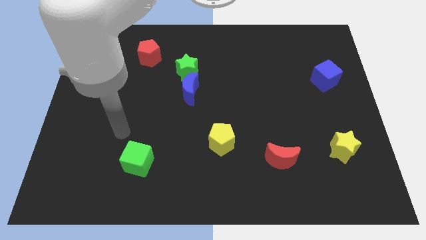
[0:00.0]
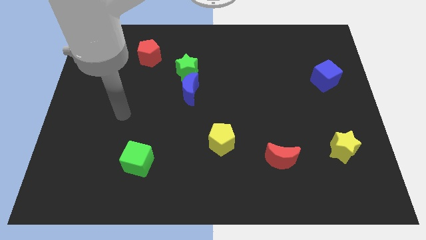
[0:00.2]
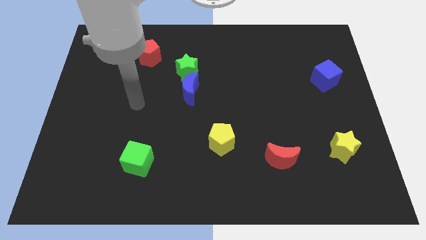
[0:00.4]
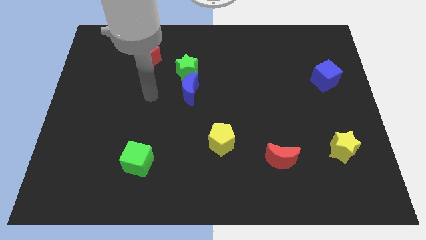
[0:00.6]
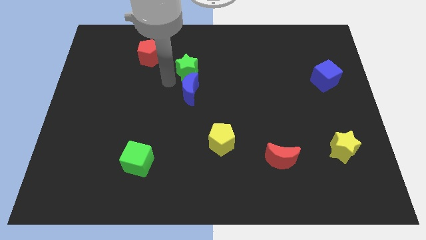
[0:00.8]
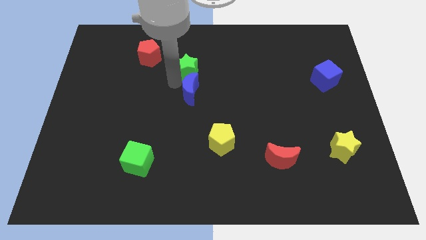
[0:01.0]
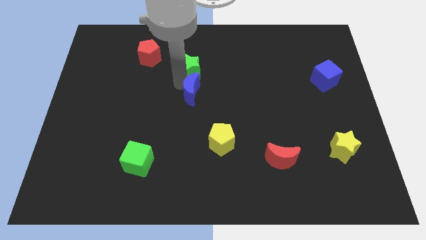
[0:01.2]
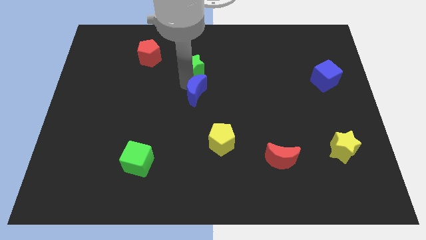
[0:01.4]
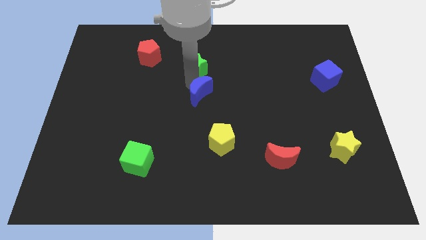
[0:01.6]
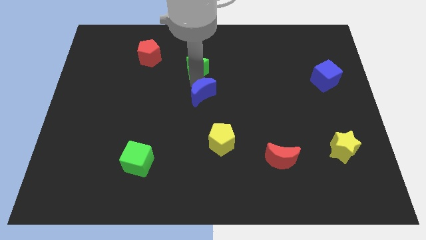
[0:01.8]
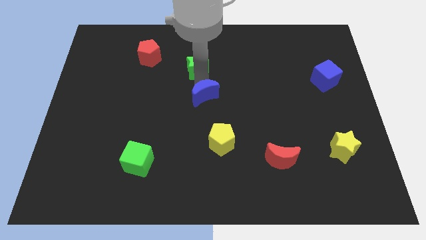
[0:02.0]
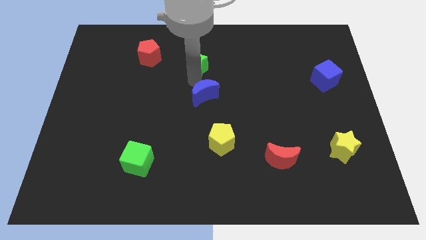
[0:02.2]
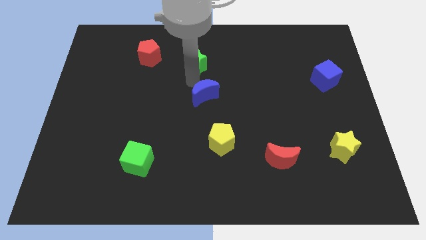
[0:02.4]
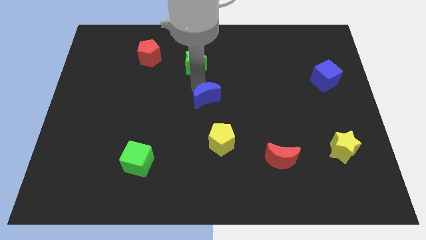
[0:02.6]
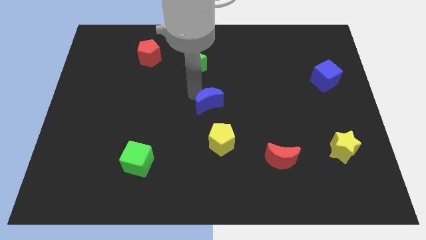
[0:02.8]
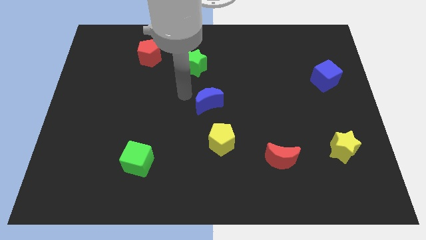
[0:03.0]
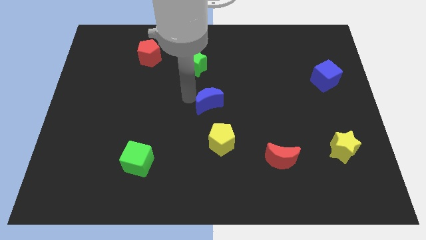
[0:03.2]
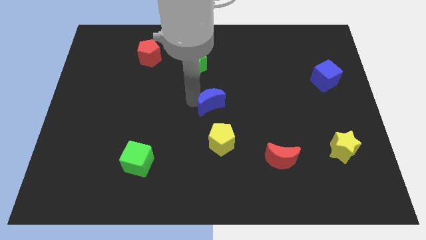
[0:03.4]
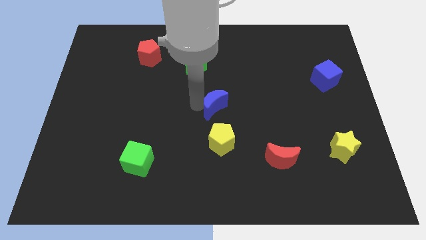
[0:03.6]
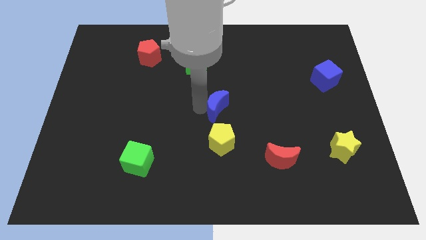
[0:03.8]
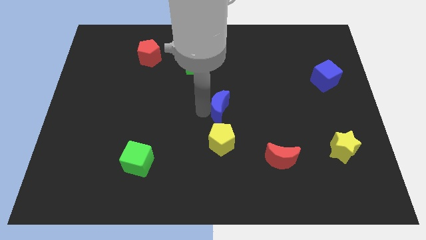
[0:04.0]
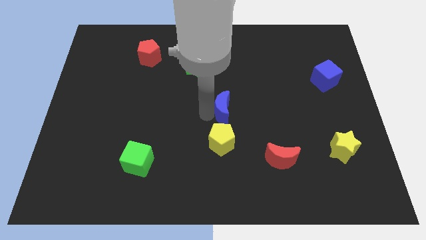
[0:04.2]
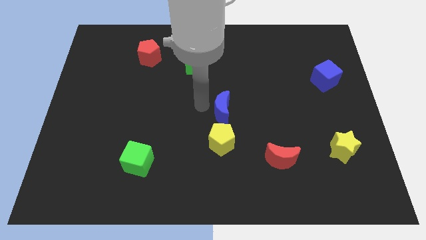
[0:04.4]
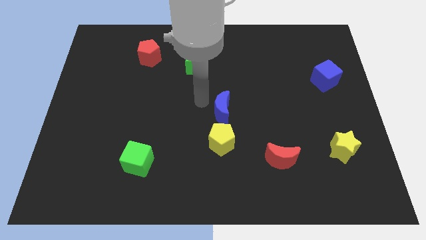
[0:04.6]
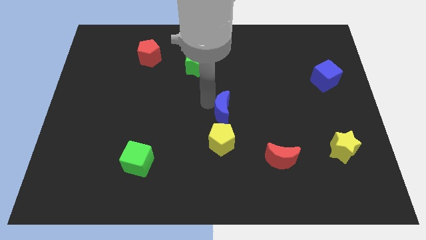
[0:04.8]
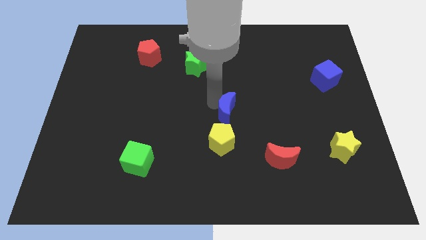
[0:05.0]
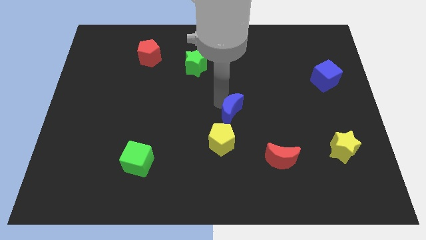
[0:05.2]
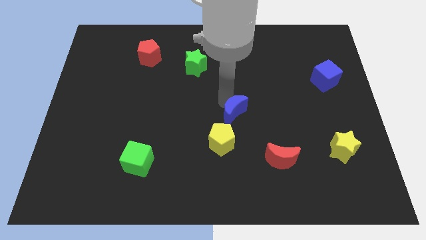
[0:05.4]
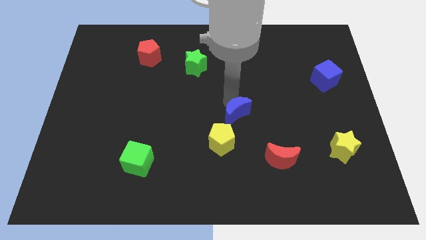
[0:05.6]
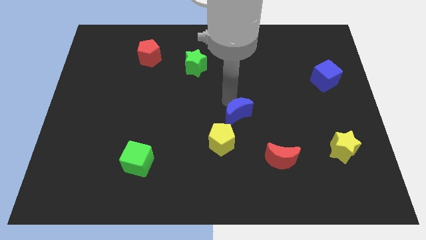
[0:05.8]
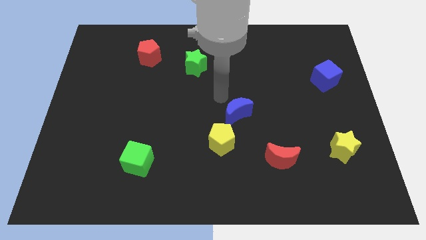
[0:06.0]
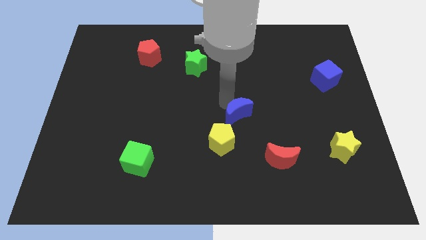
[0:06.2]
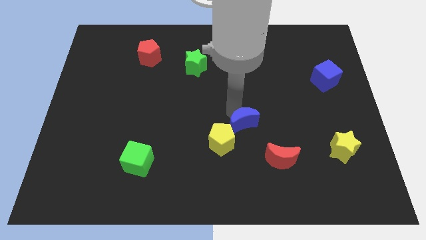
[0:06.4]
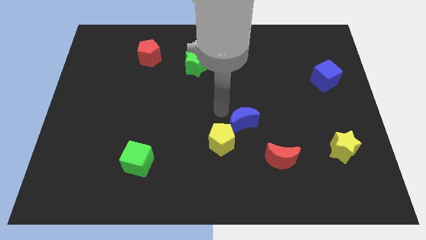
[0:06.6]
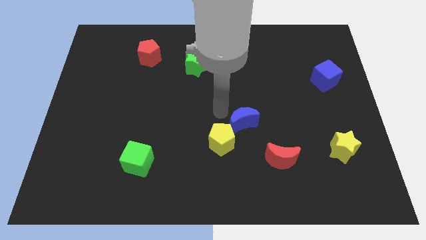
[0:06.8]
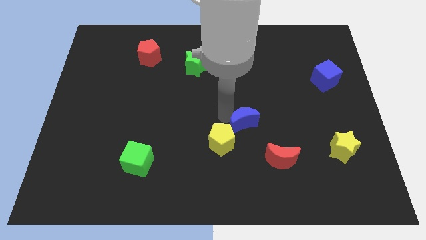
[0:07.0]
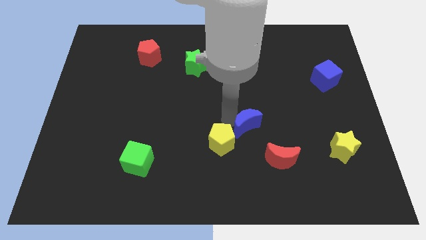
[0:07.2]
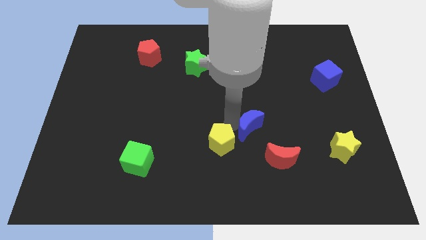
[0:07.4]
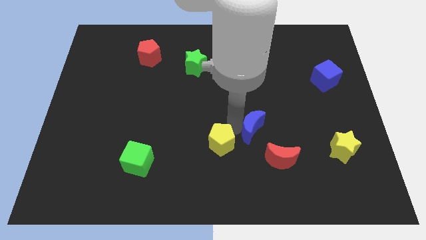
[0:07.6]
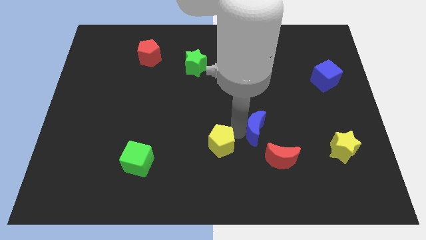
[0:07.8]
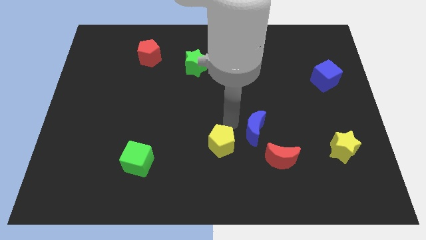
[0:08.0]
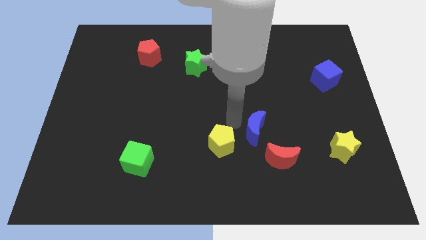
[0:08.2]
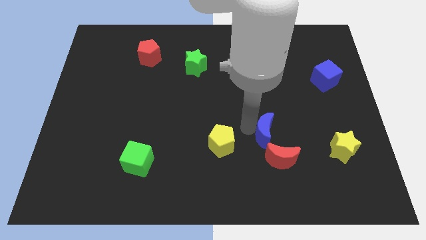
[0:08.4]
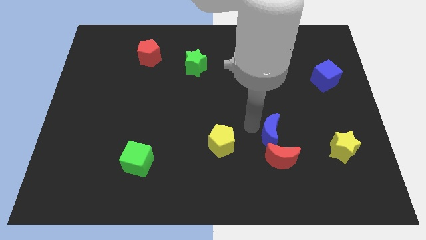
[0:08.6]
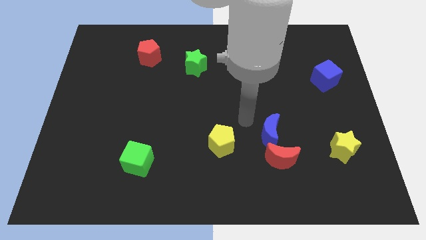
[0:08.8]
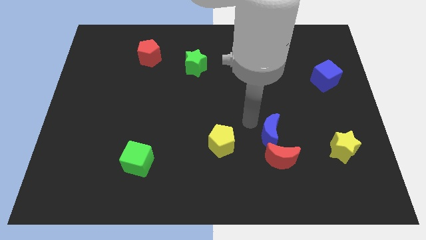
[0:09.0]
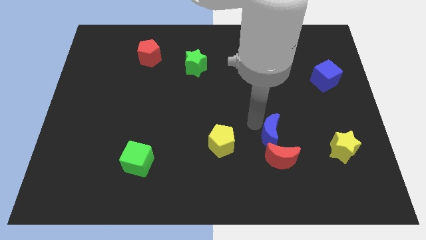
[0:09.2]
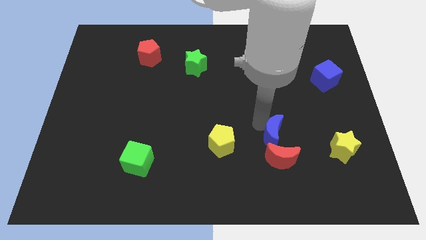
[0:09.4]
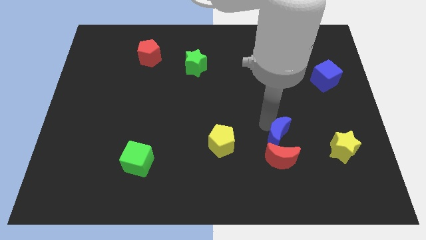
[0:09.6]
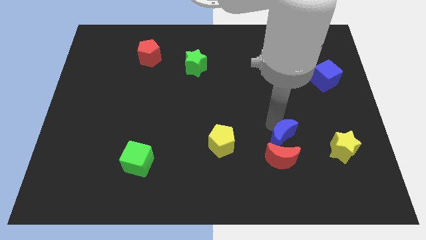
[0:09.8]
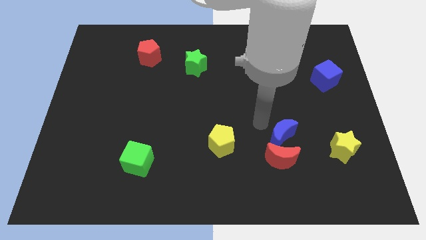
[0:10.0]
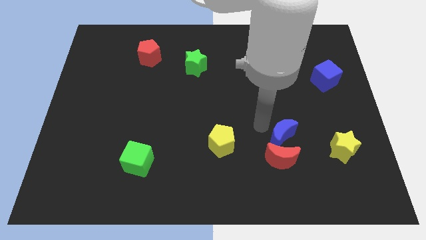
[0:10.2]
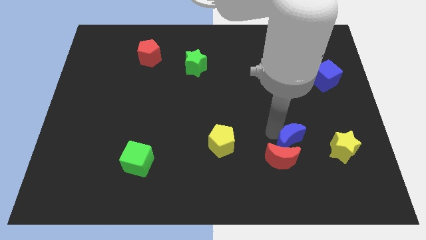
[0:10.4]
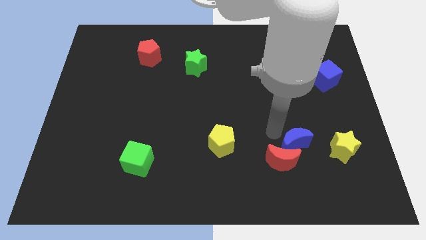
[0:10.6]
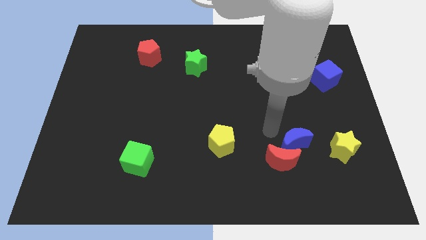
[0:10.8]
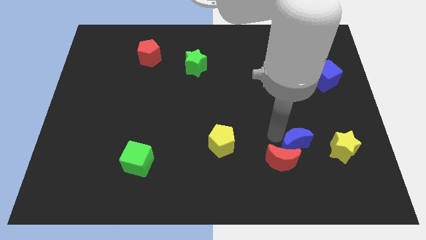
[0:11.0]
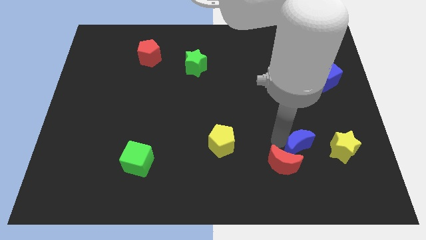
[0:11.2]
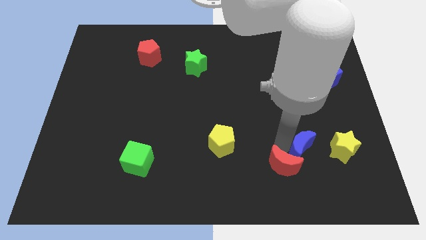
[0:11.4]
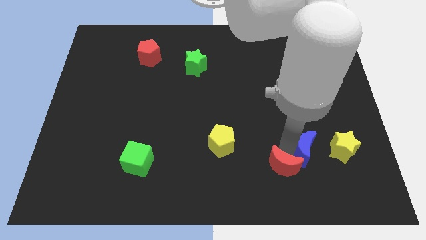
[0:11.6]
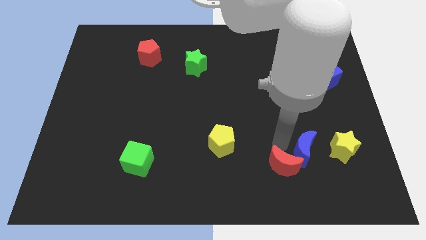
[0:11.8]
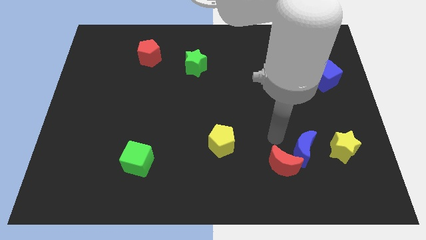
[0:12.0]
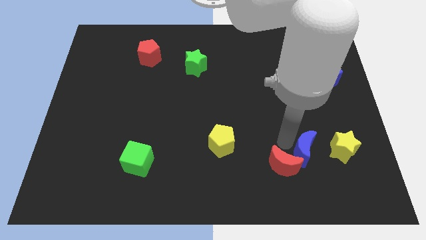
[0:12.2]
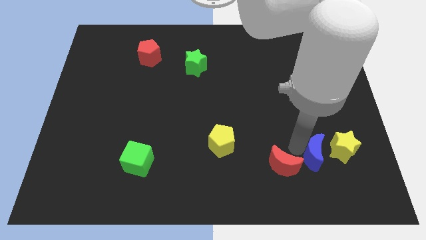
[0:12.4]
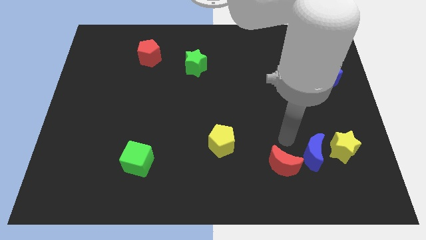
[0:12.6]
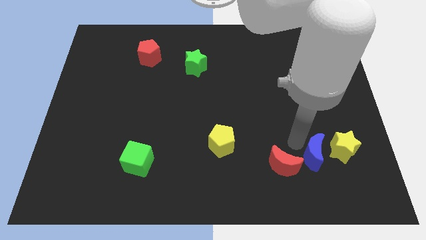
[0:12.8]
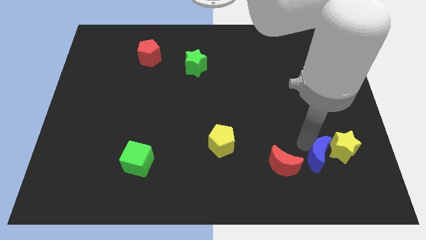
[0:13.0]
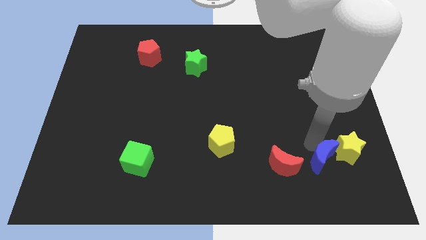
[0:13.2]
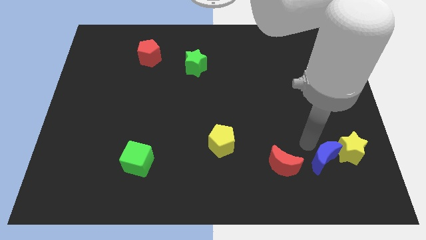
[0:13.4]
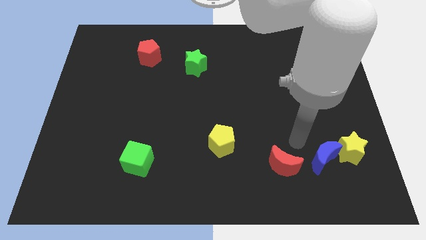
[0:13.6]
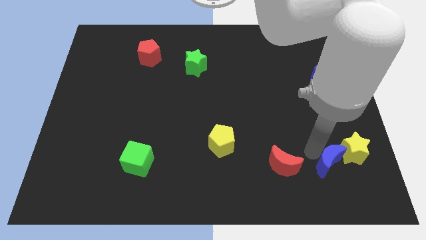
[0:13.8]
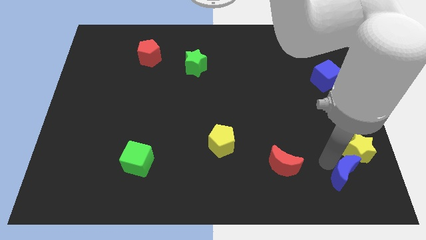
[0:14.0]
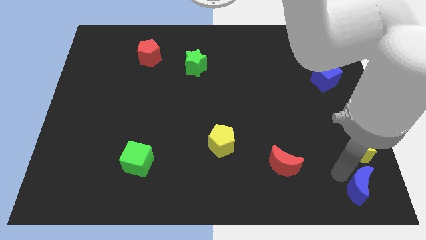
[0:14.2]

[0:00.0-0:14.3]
move the blue moon to the bottom right corner
